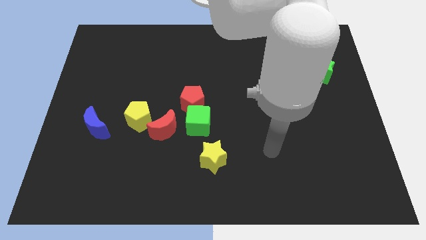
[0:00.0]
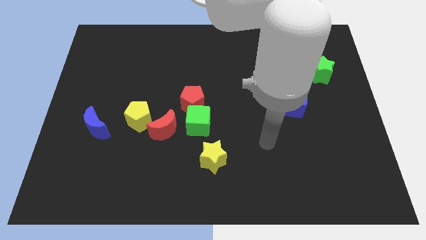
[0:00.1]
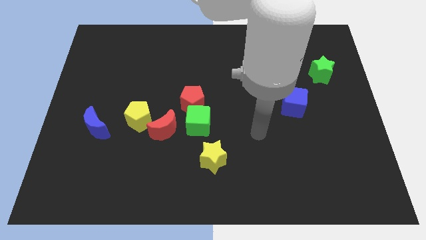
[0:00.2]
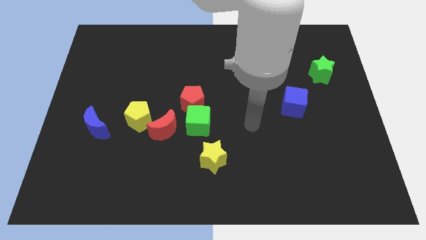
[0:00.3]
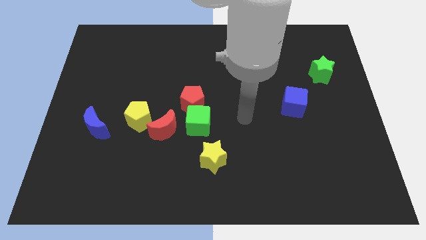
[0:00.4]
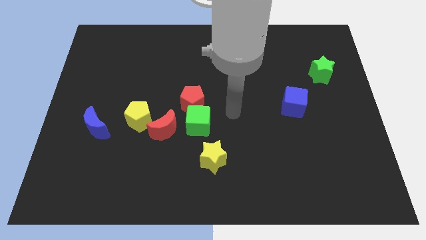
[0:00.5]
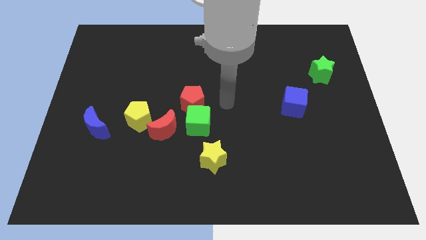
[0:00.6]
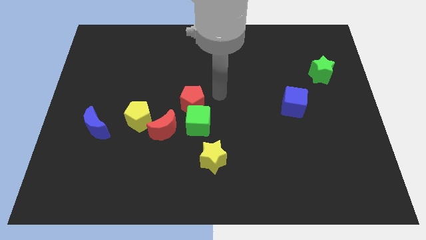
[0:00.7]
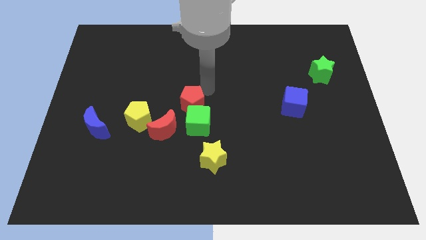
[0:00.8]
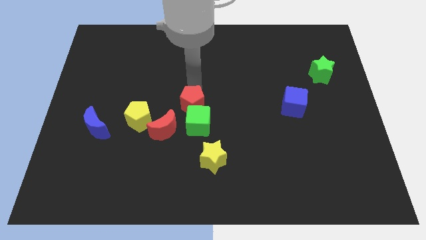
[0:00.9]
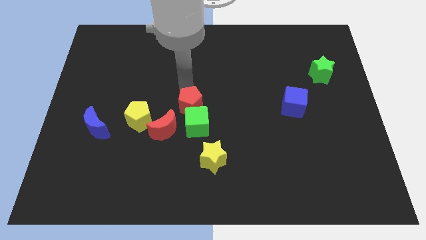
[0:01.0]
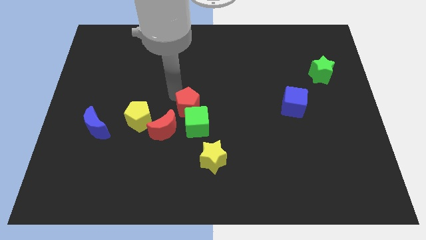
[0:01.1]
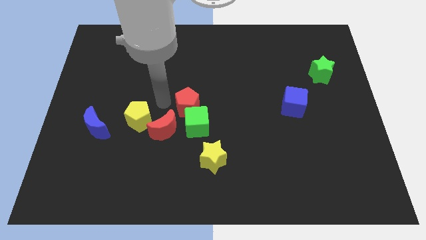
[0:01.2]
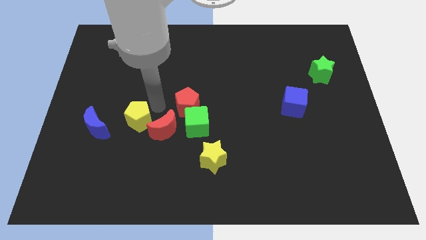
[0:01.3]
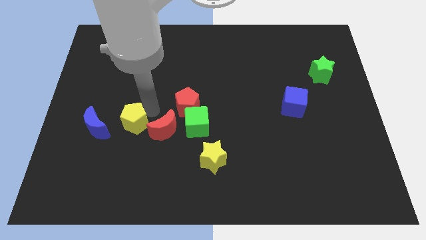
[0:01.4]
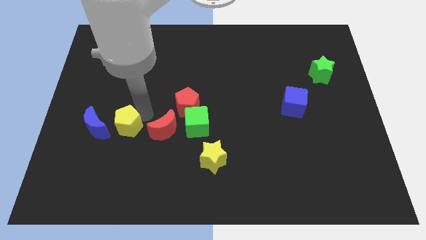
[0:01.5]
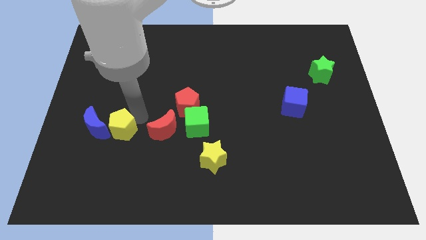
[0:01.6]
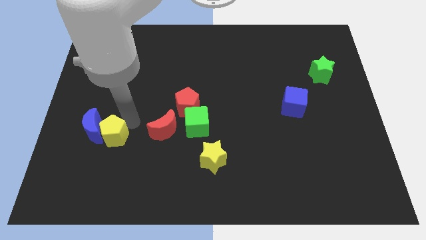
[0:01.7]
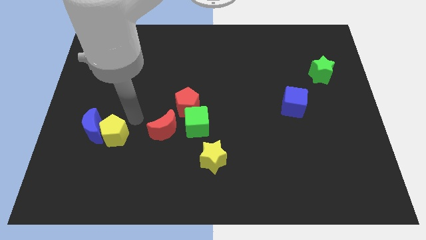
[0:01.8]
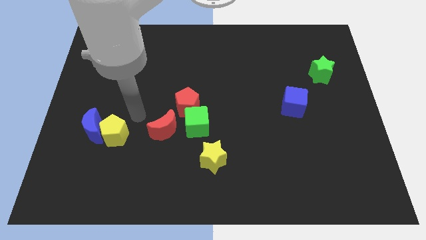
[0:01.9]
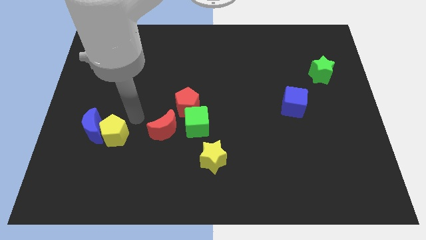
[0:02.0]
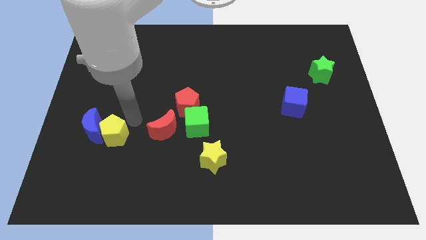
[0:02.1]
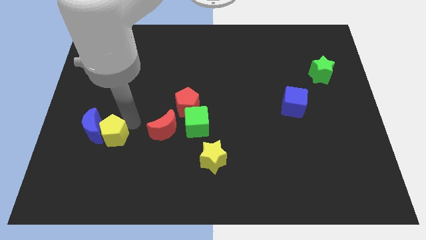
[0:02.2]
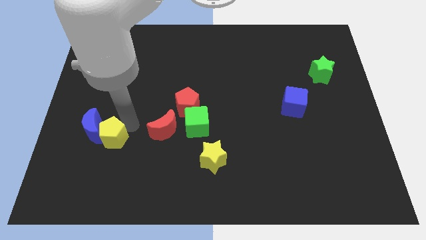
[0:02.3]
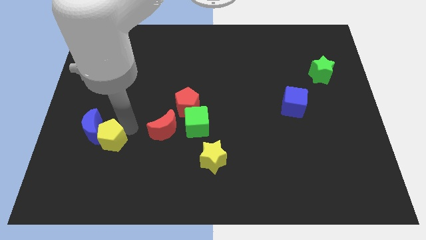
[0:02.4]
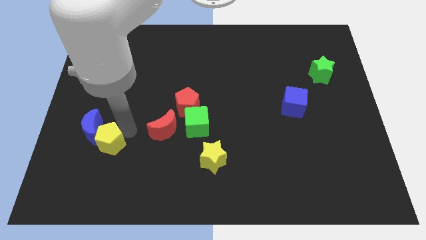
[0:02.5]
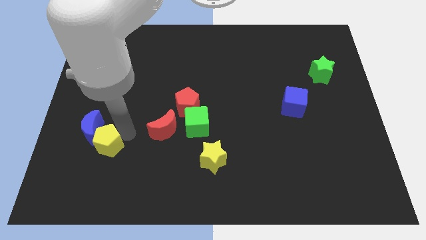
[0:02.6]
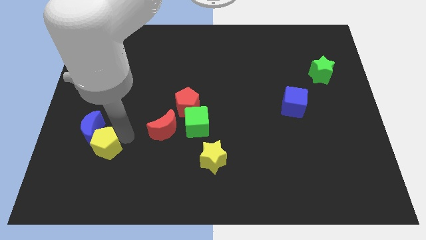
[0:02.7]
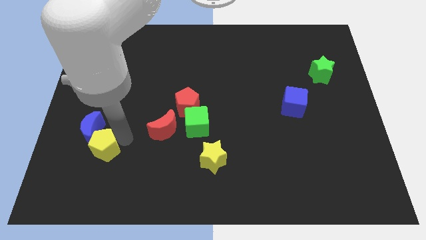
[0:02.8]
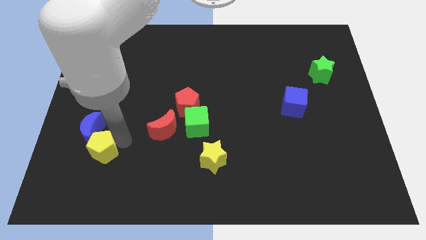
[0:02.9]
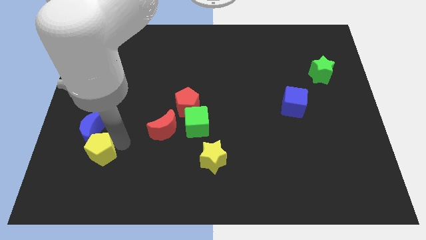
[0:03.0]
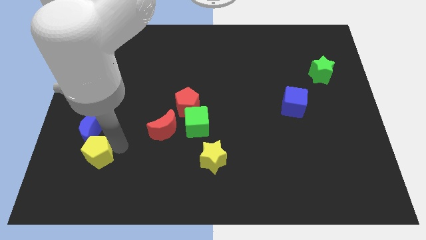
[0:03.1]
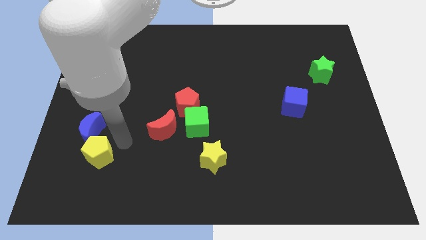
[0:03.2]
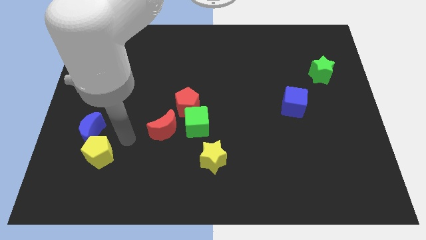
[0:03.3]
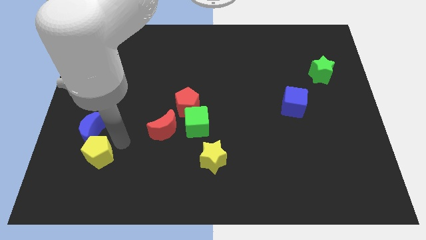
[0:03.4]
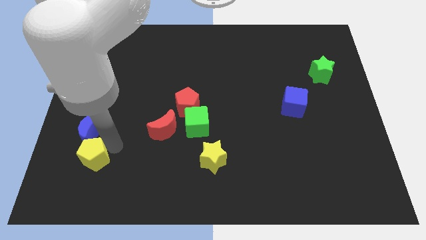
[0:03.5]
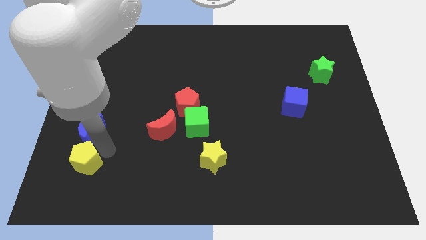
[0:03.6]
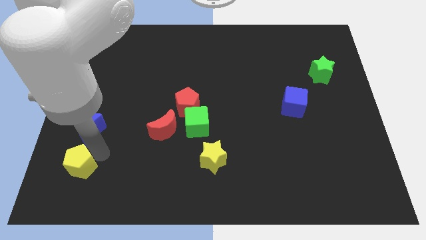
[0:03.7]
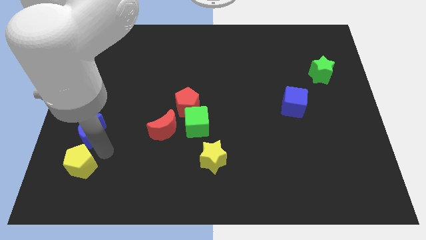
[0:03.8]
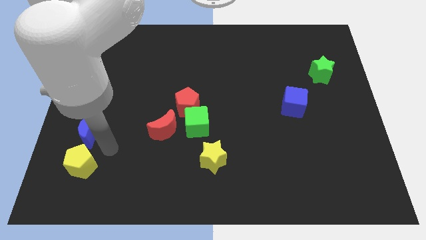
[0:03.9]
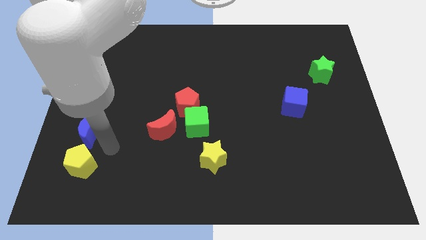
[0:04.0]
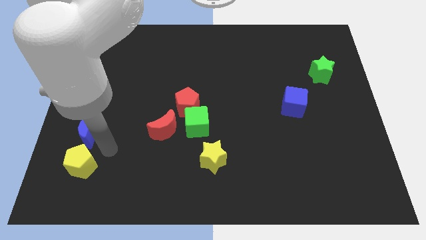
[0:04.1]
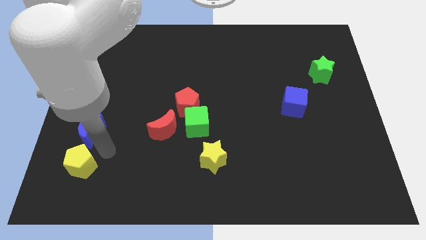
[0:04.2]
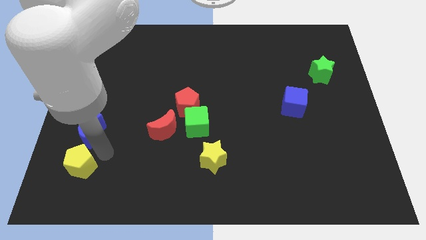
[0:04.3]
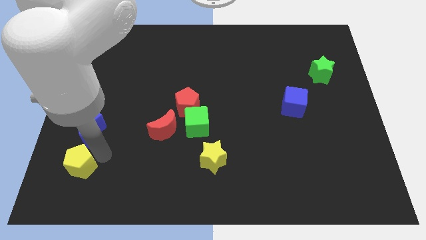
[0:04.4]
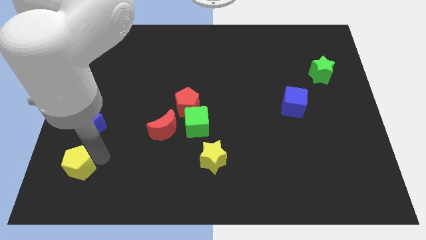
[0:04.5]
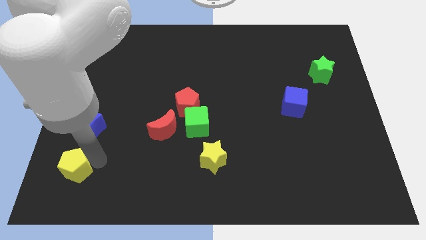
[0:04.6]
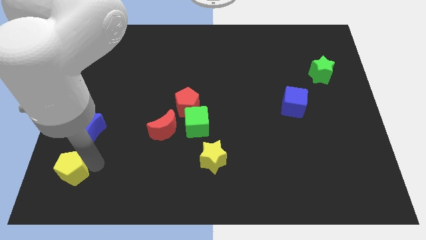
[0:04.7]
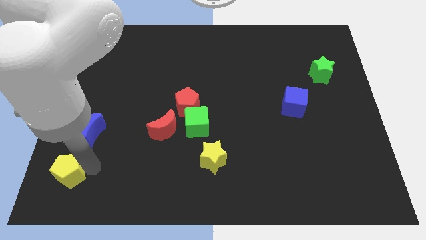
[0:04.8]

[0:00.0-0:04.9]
put the yellow pentagon to the bottom left of the board

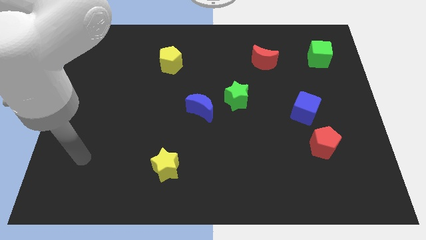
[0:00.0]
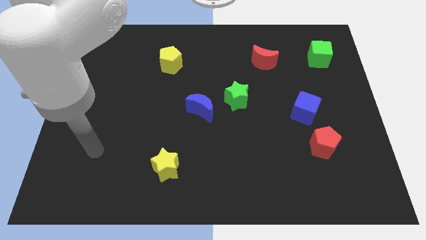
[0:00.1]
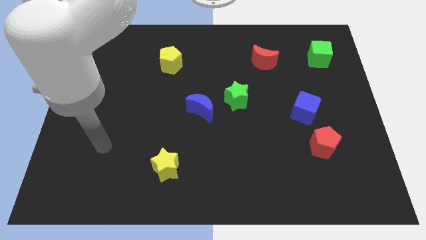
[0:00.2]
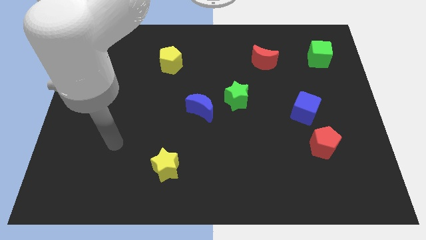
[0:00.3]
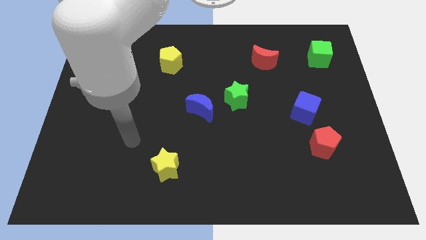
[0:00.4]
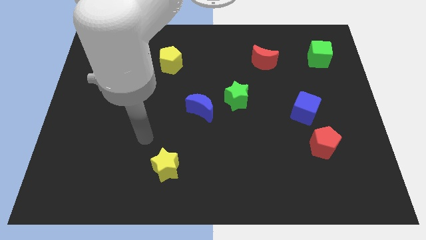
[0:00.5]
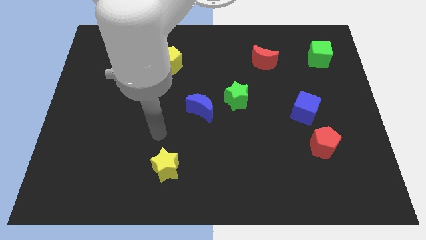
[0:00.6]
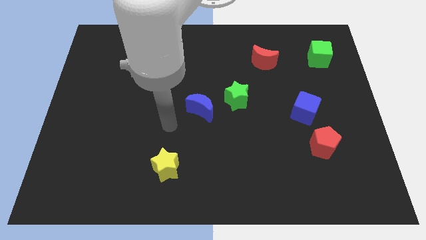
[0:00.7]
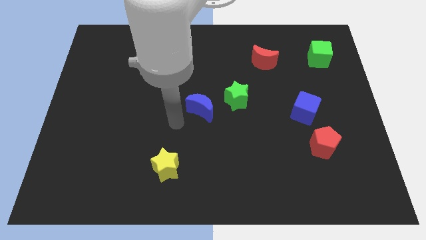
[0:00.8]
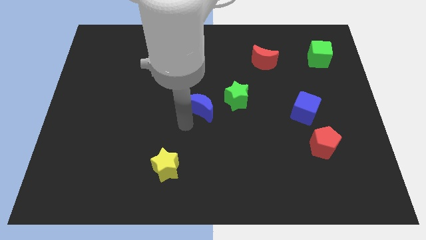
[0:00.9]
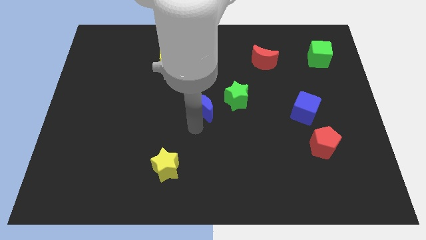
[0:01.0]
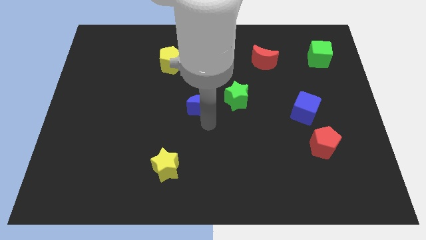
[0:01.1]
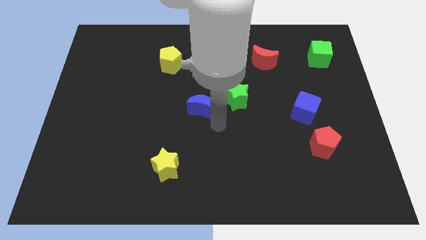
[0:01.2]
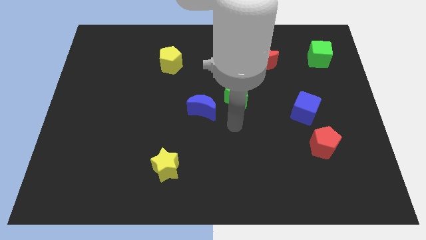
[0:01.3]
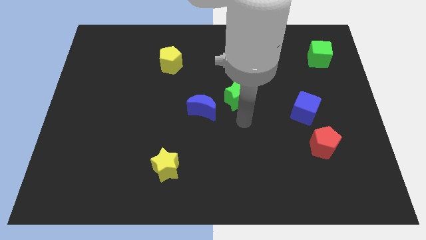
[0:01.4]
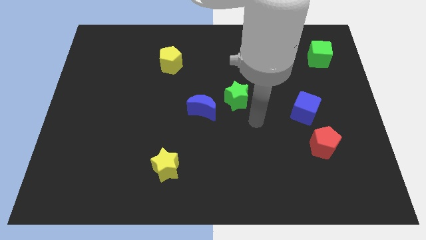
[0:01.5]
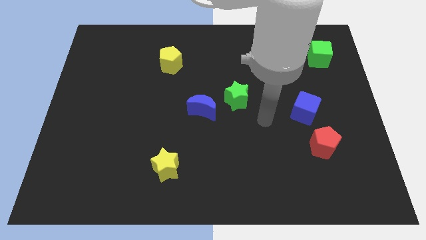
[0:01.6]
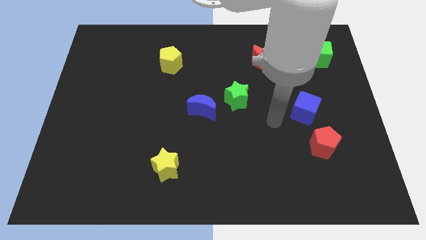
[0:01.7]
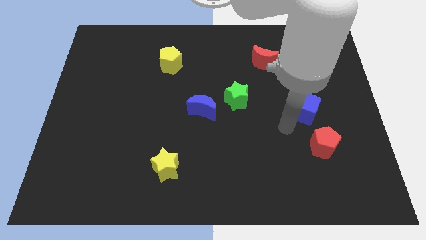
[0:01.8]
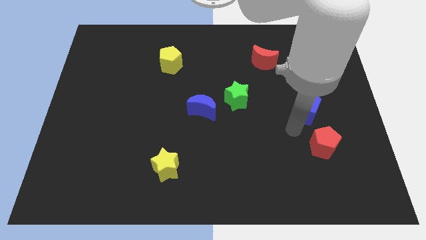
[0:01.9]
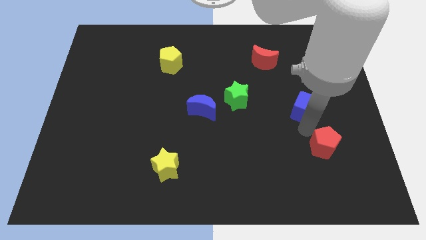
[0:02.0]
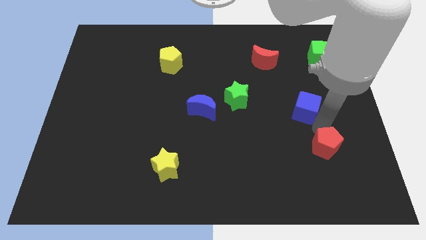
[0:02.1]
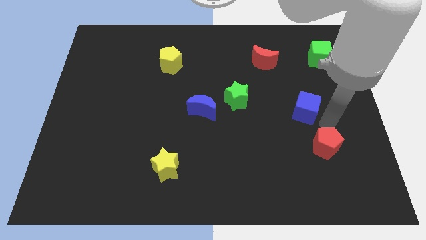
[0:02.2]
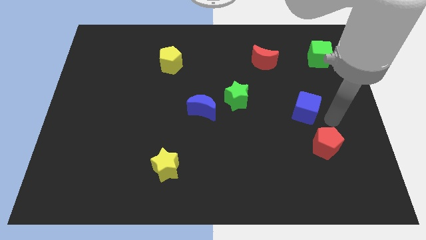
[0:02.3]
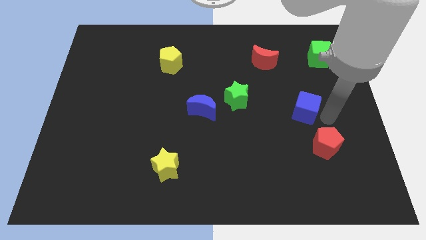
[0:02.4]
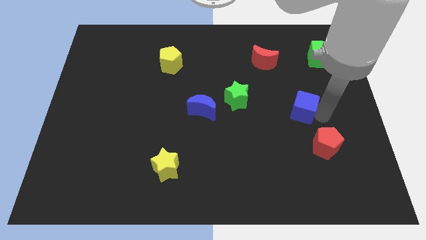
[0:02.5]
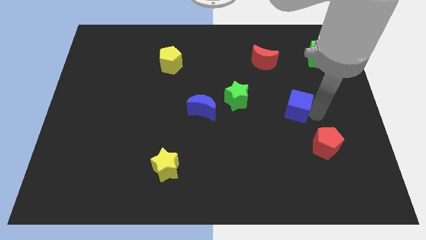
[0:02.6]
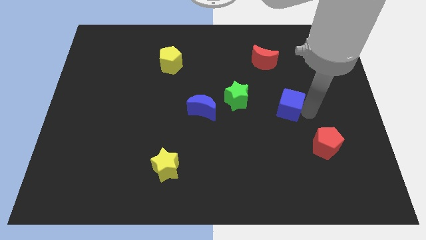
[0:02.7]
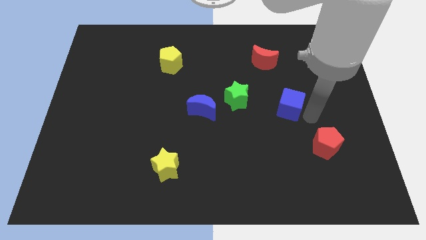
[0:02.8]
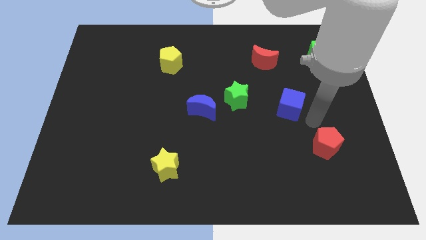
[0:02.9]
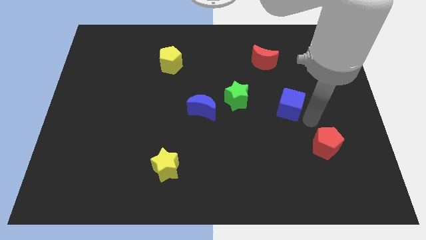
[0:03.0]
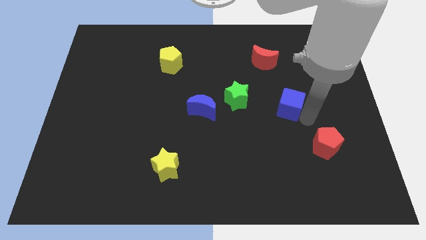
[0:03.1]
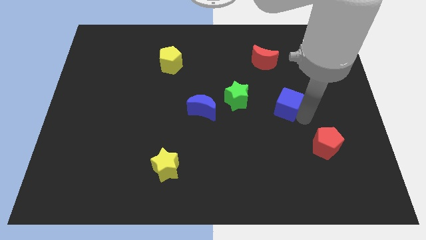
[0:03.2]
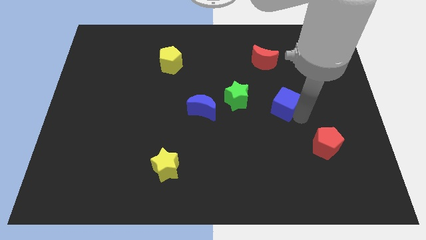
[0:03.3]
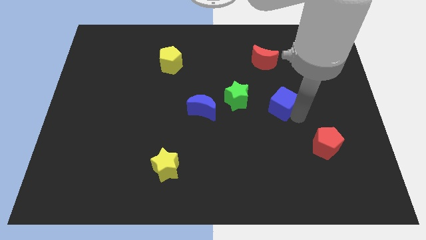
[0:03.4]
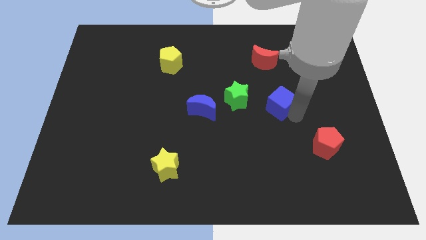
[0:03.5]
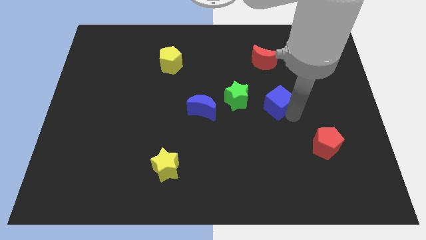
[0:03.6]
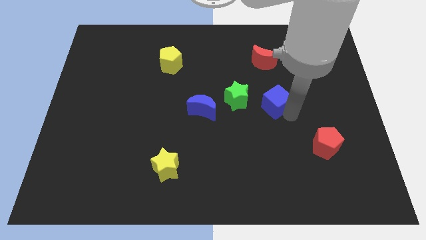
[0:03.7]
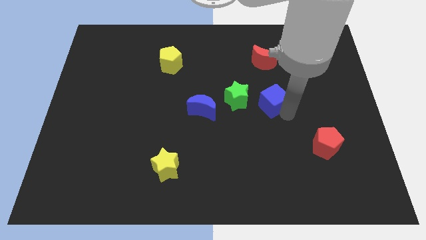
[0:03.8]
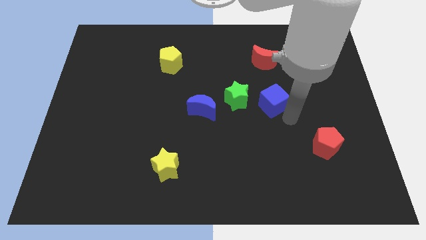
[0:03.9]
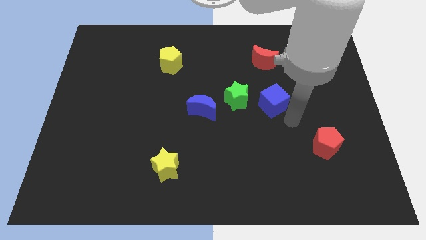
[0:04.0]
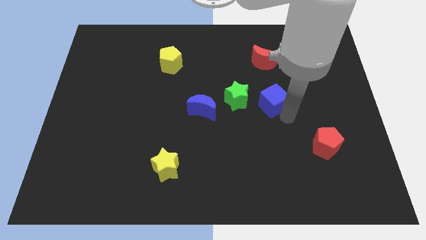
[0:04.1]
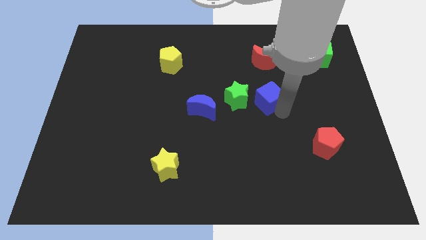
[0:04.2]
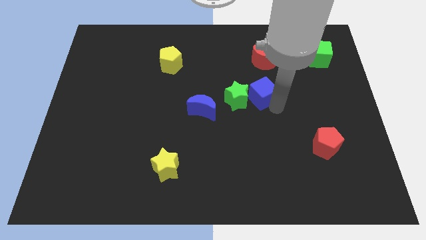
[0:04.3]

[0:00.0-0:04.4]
push the blue cube to the center of the board
